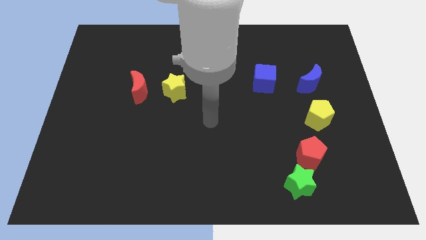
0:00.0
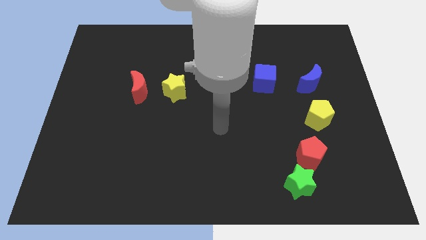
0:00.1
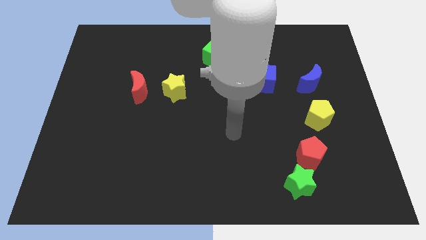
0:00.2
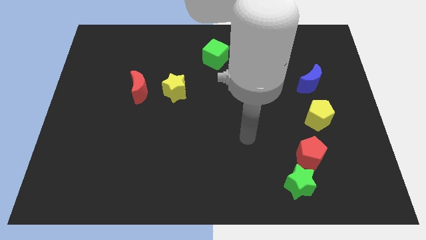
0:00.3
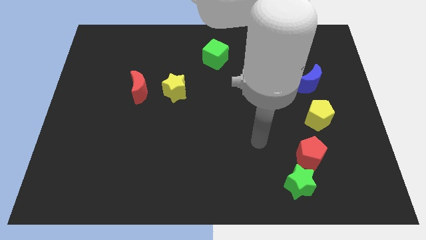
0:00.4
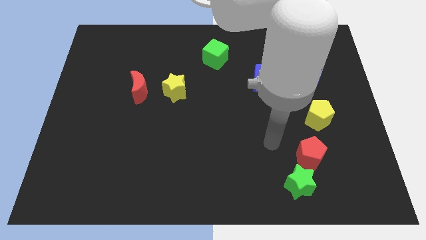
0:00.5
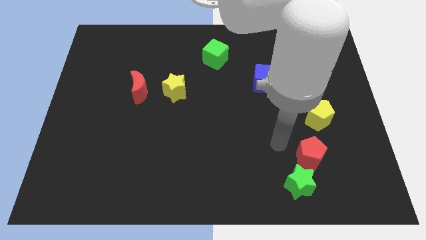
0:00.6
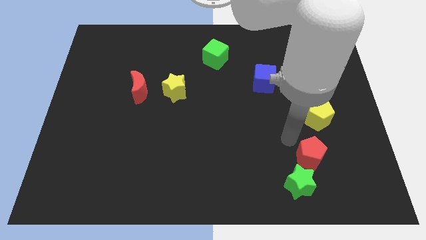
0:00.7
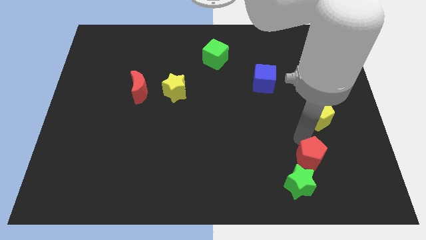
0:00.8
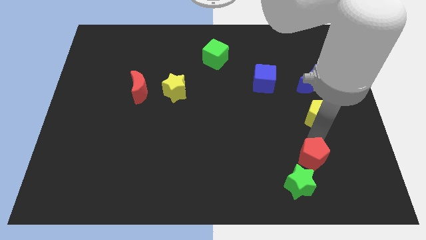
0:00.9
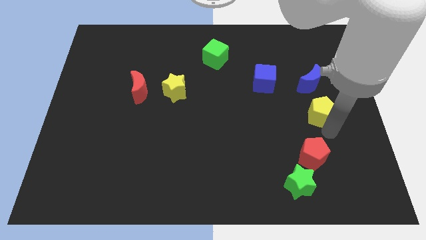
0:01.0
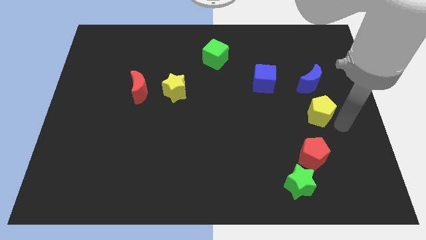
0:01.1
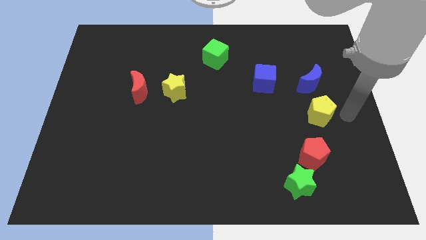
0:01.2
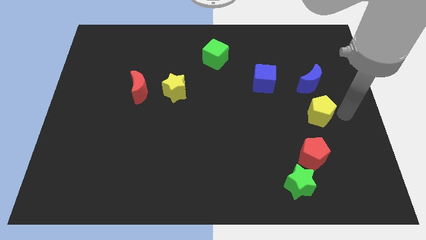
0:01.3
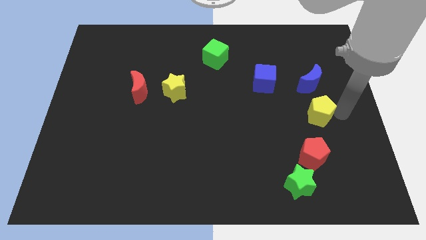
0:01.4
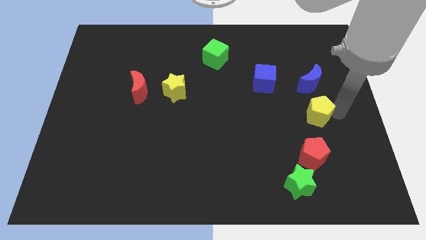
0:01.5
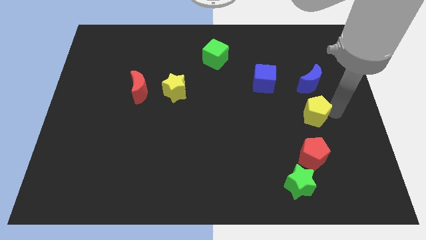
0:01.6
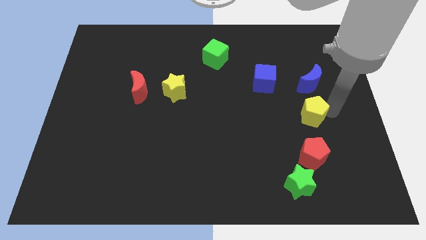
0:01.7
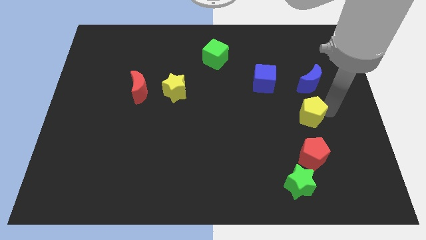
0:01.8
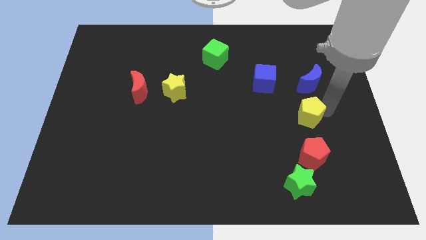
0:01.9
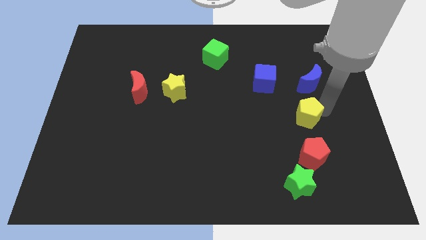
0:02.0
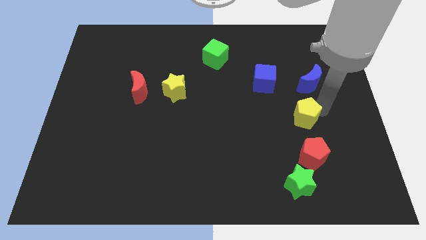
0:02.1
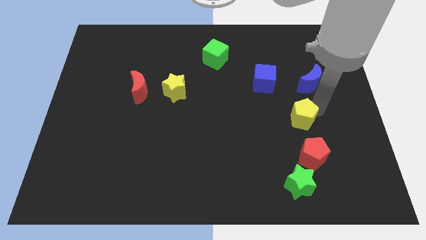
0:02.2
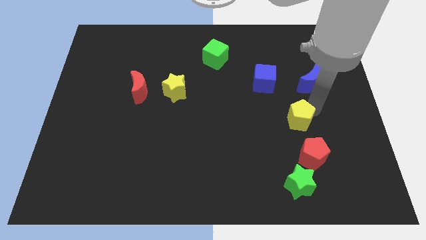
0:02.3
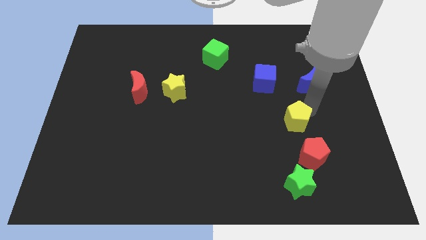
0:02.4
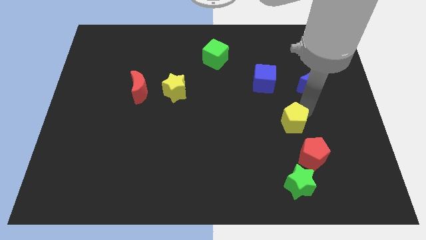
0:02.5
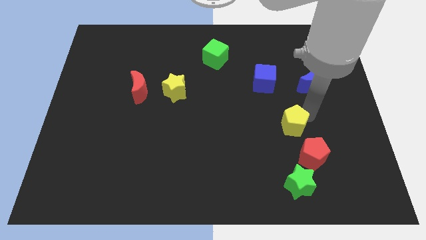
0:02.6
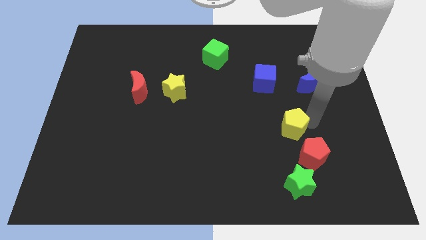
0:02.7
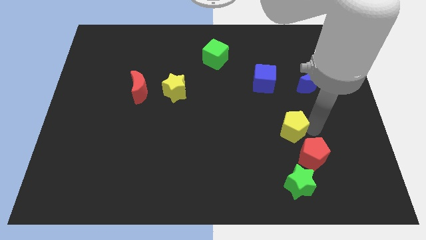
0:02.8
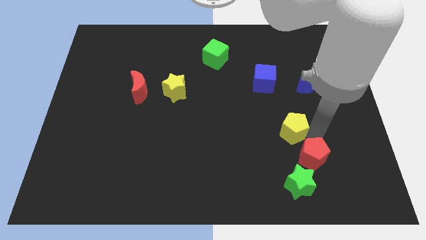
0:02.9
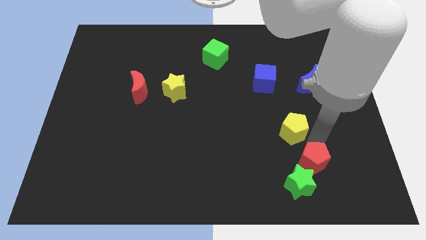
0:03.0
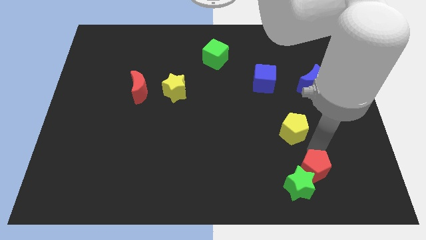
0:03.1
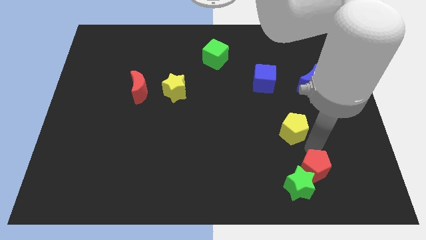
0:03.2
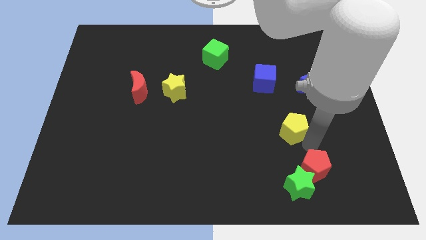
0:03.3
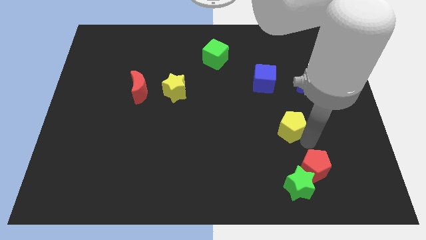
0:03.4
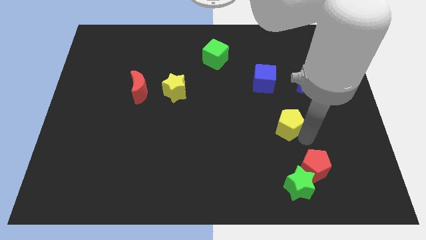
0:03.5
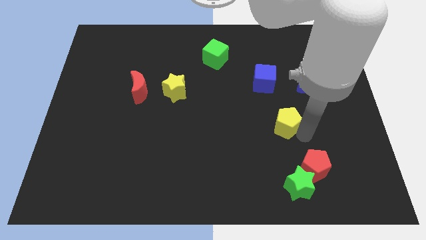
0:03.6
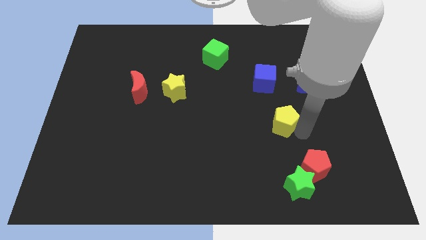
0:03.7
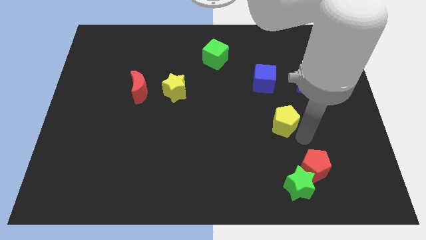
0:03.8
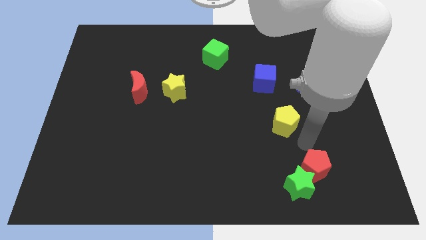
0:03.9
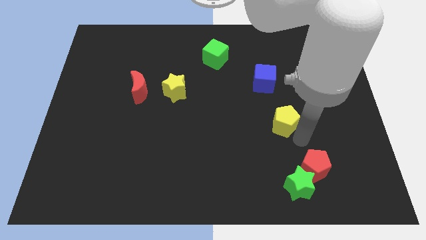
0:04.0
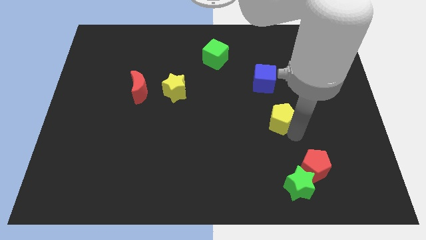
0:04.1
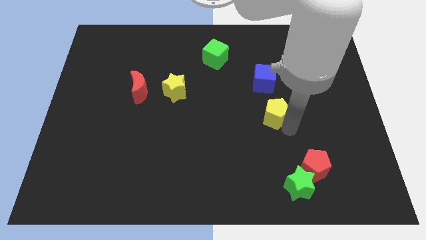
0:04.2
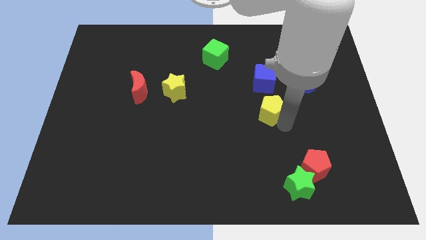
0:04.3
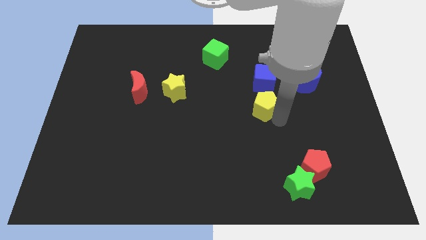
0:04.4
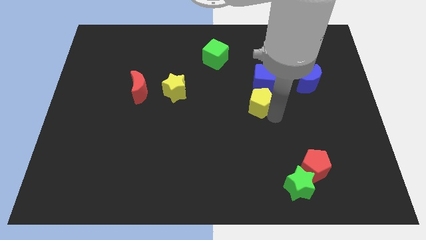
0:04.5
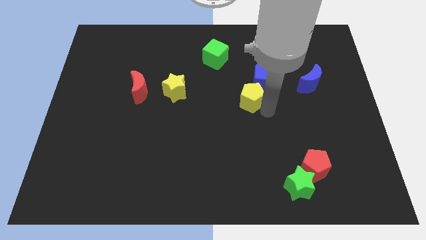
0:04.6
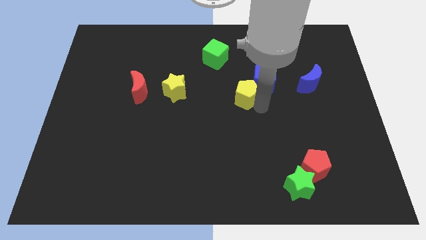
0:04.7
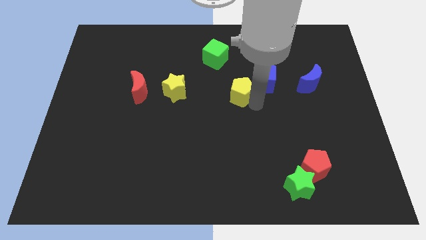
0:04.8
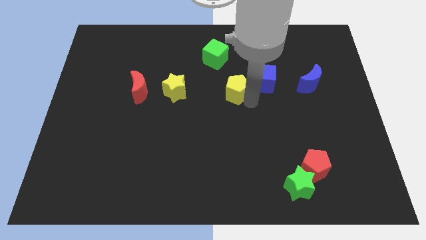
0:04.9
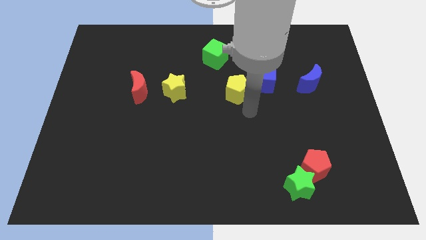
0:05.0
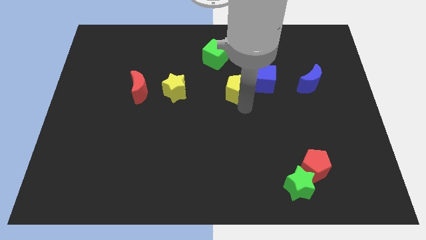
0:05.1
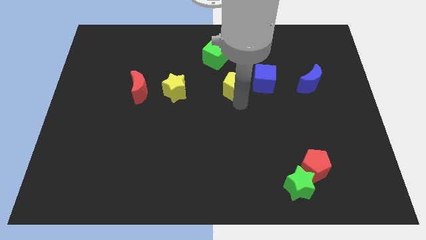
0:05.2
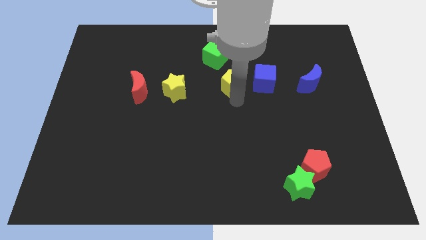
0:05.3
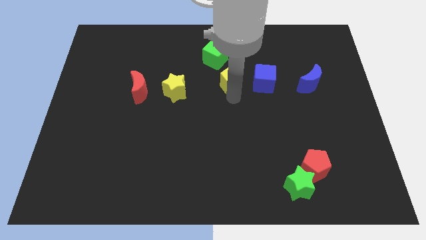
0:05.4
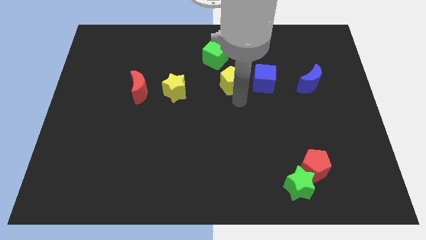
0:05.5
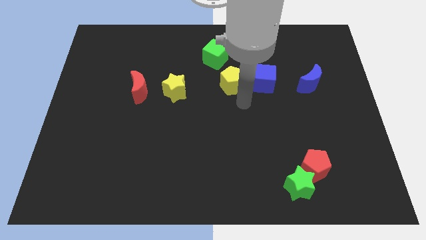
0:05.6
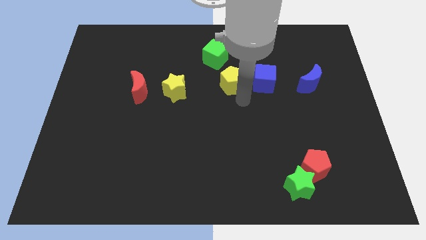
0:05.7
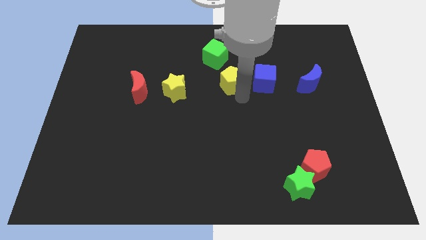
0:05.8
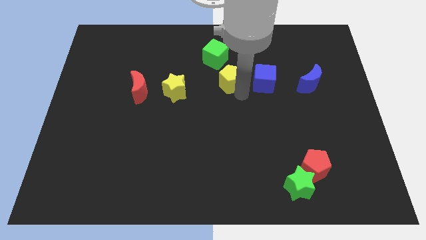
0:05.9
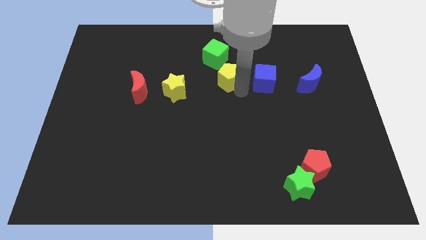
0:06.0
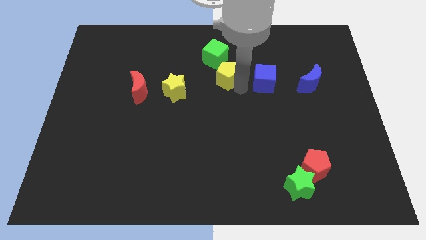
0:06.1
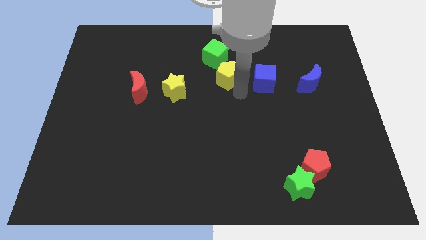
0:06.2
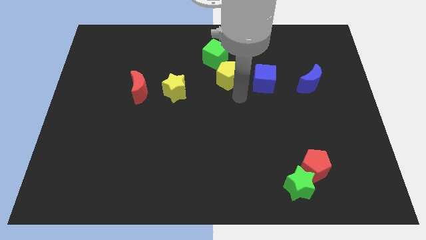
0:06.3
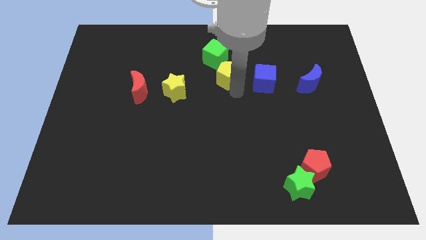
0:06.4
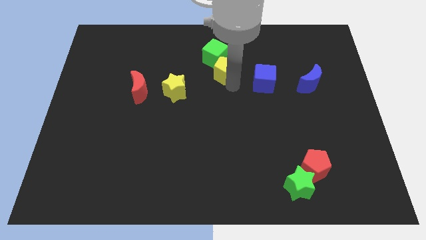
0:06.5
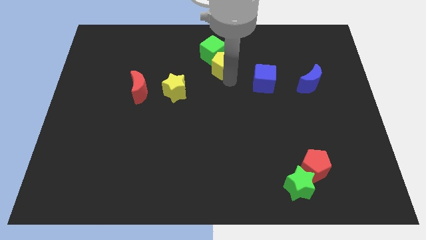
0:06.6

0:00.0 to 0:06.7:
put the yellow pentagon to the green cube

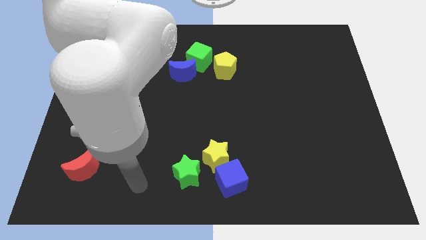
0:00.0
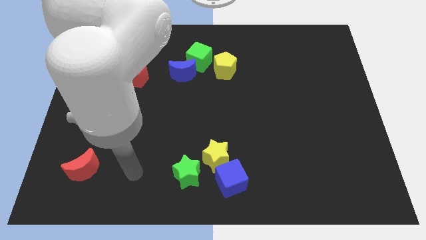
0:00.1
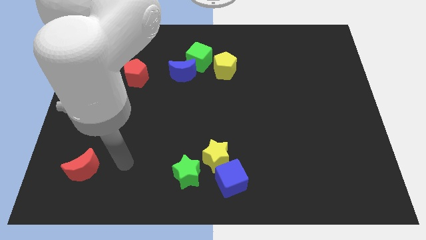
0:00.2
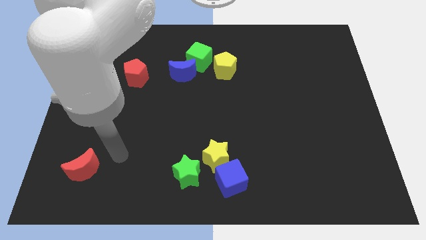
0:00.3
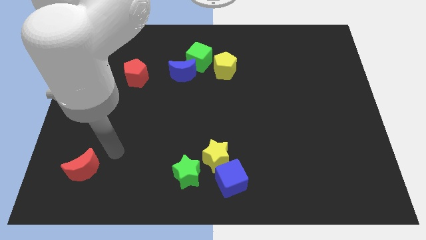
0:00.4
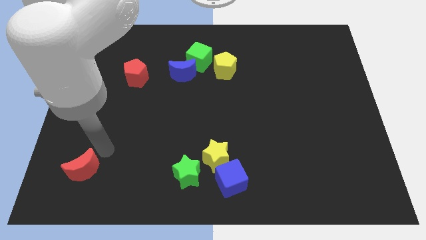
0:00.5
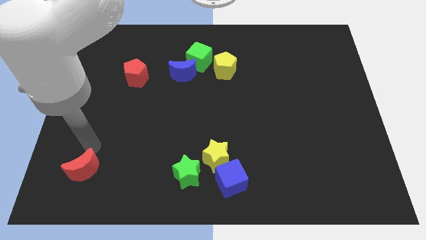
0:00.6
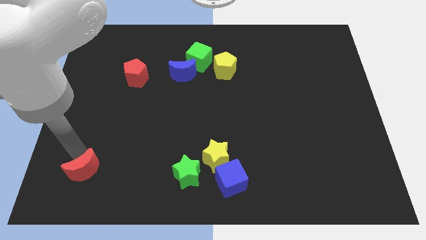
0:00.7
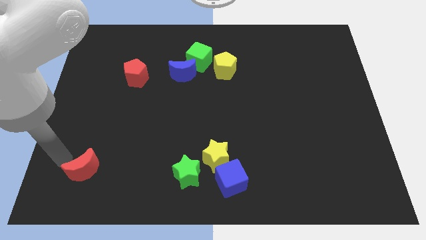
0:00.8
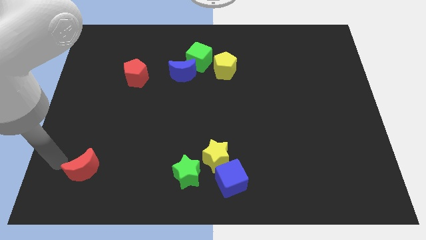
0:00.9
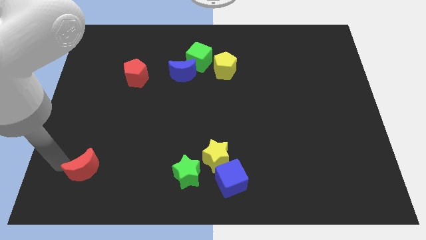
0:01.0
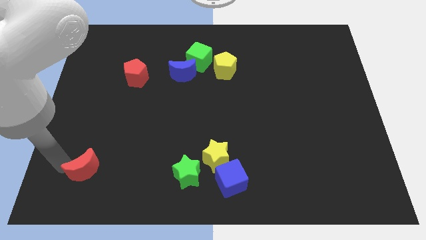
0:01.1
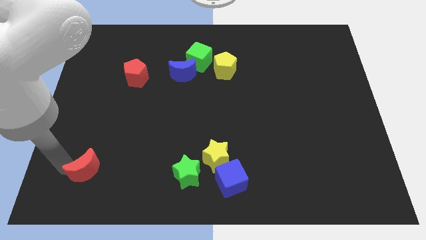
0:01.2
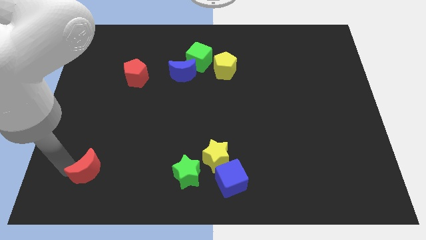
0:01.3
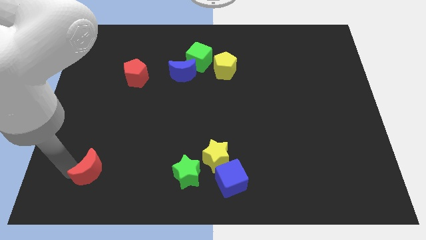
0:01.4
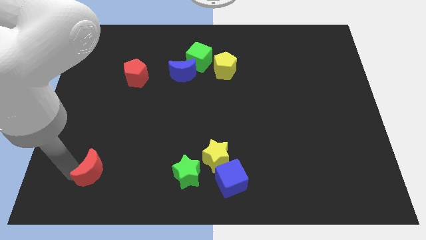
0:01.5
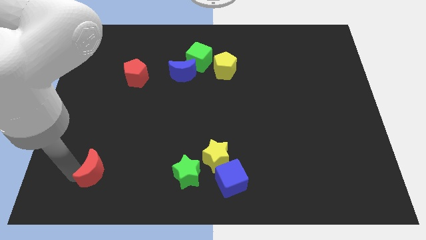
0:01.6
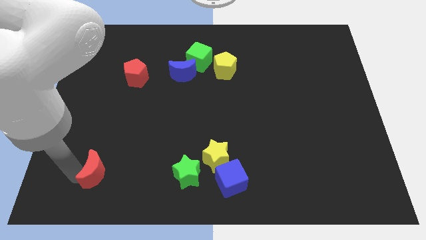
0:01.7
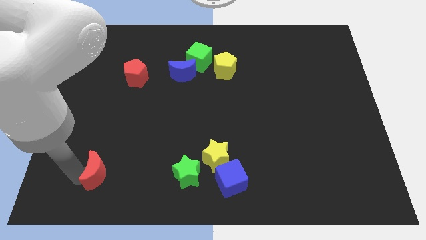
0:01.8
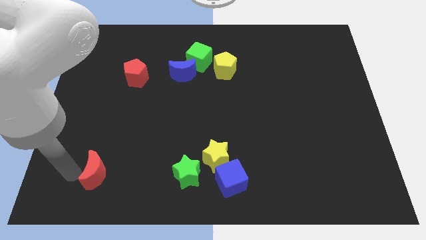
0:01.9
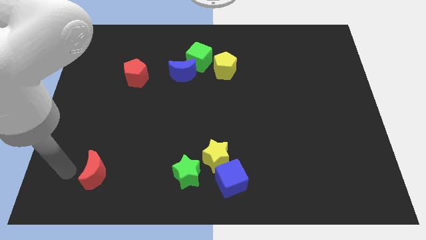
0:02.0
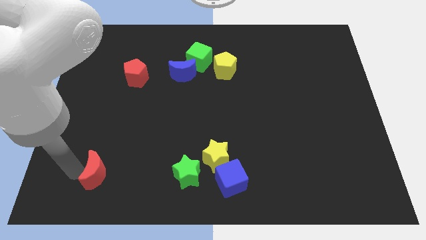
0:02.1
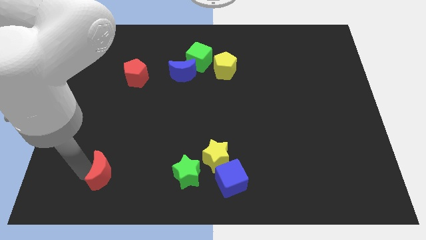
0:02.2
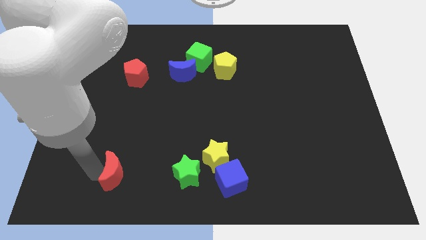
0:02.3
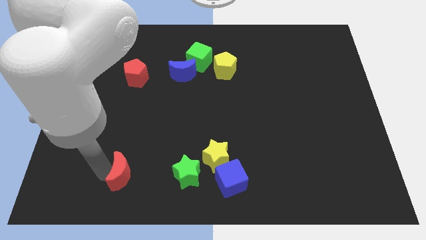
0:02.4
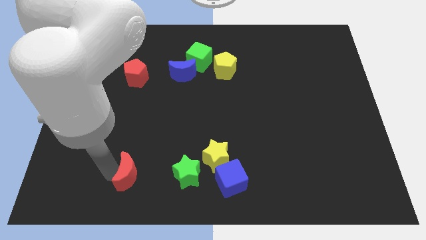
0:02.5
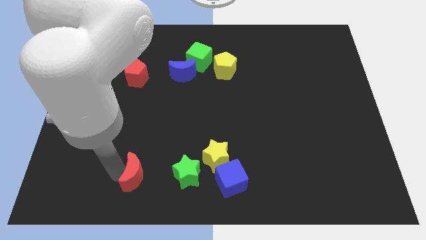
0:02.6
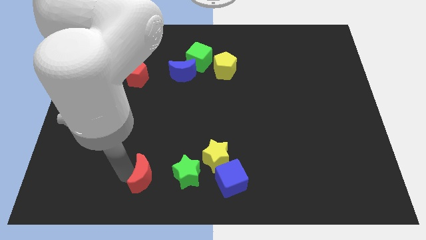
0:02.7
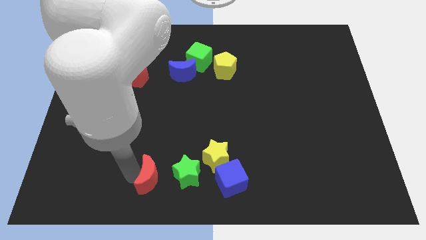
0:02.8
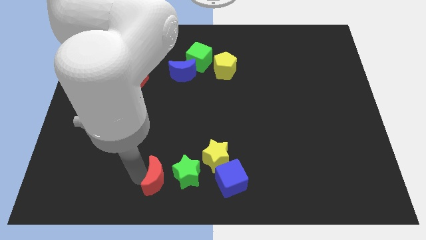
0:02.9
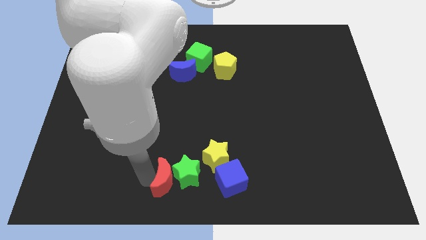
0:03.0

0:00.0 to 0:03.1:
move the red moon close to the green star
